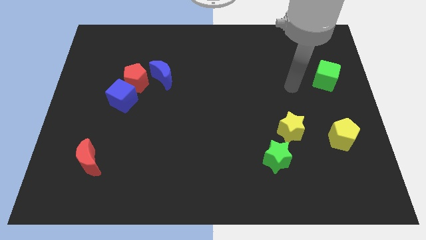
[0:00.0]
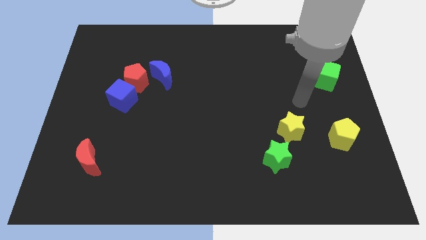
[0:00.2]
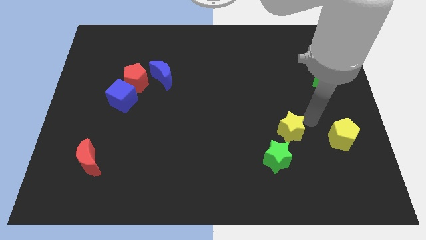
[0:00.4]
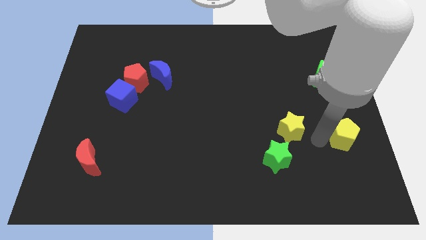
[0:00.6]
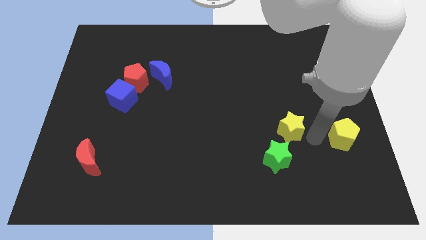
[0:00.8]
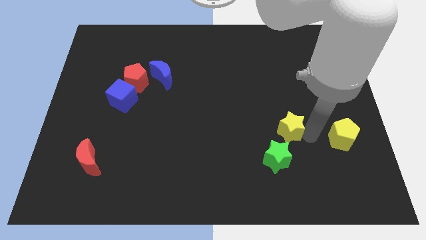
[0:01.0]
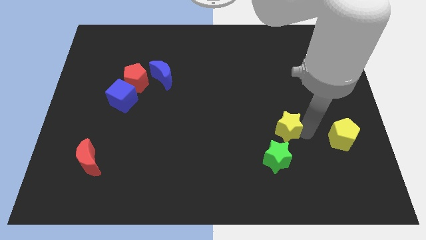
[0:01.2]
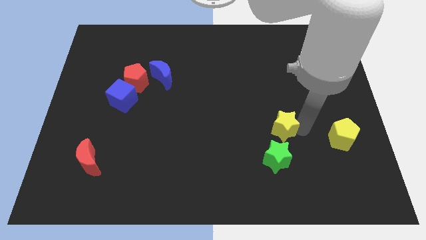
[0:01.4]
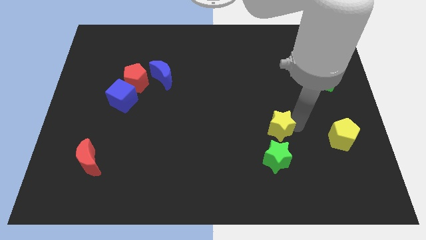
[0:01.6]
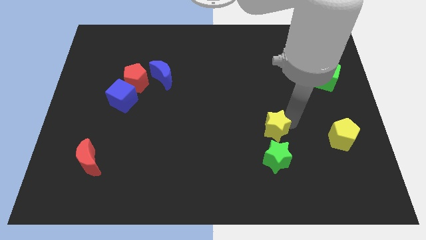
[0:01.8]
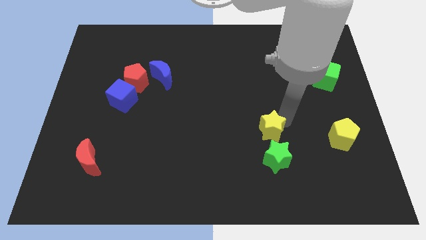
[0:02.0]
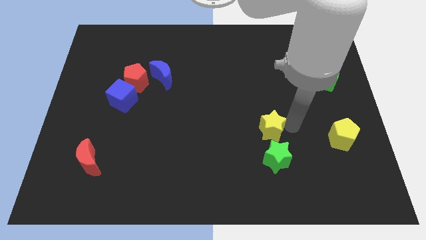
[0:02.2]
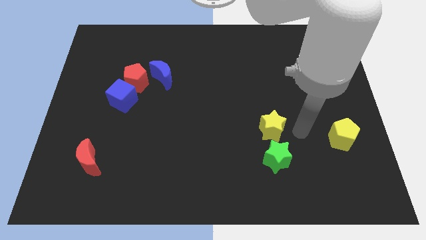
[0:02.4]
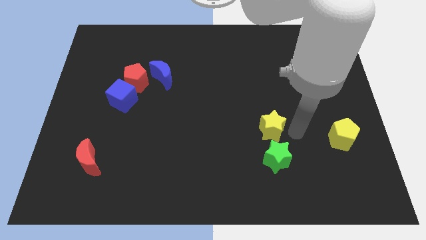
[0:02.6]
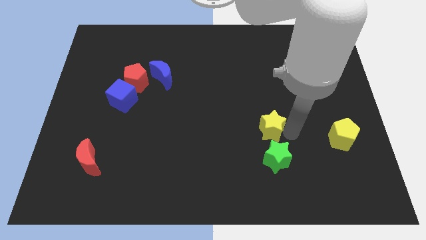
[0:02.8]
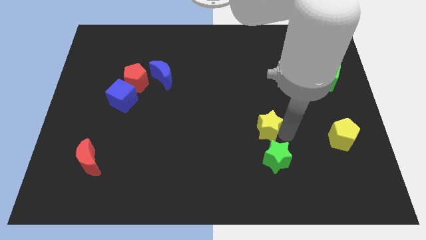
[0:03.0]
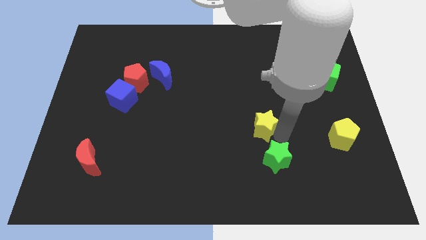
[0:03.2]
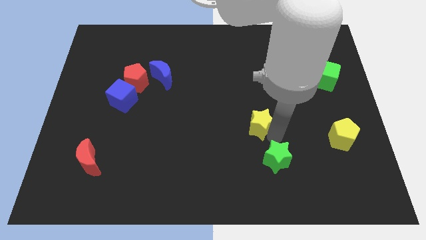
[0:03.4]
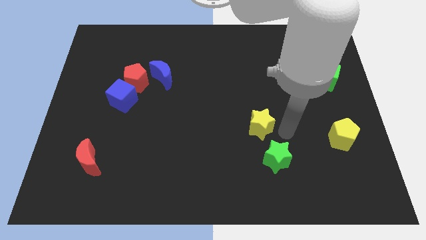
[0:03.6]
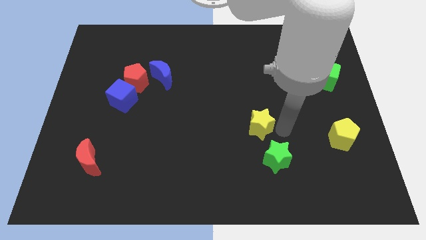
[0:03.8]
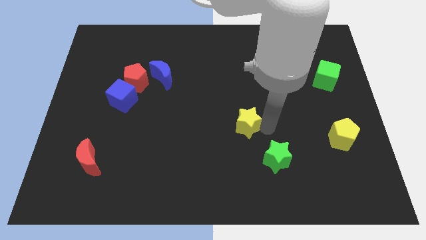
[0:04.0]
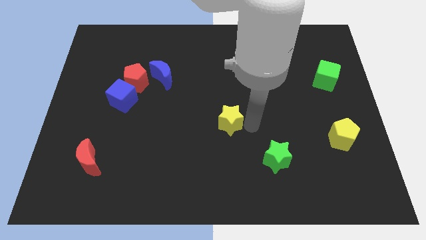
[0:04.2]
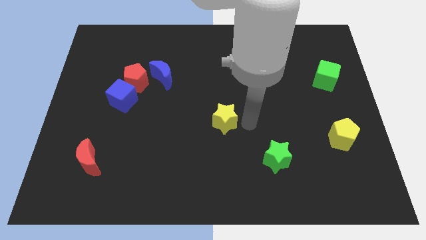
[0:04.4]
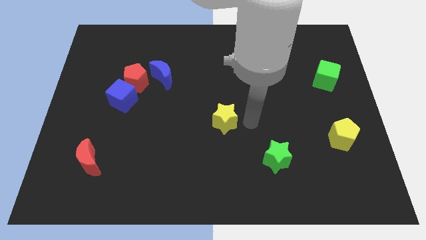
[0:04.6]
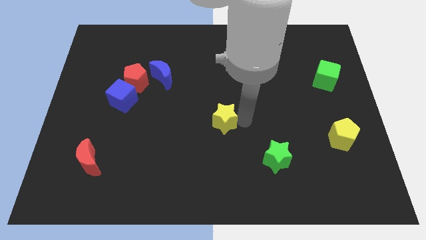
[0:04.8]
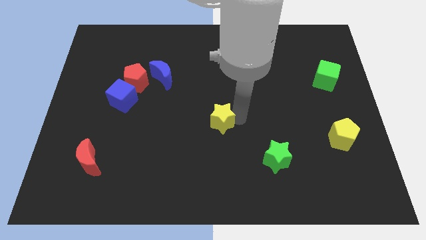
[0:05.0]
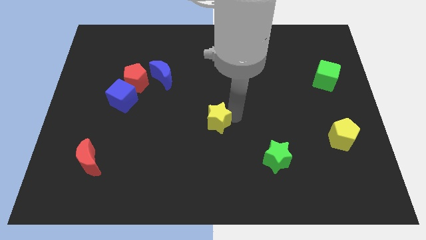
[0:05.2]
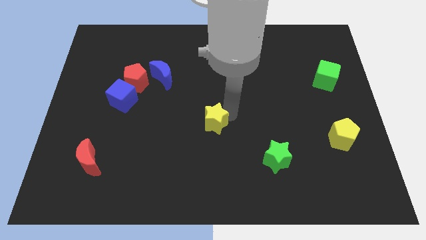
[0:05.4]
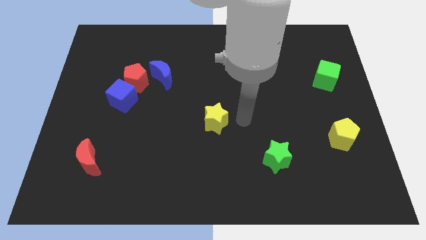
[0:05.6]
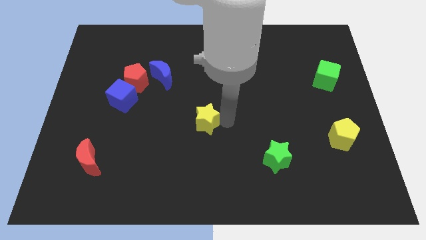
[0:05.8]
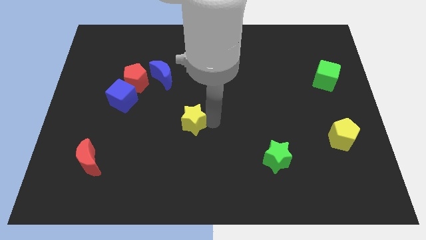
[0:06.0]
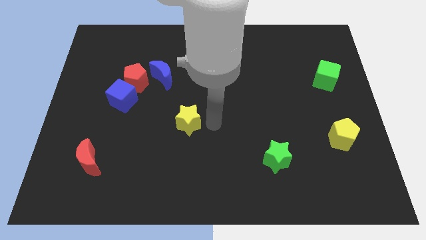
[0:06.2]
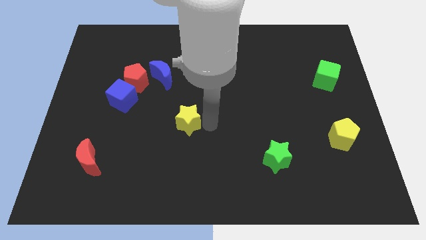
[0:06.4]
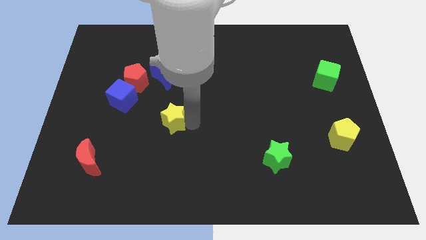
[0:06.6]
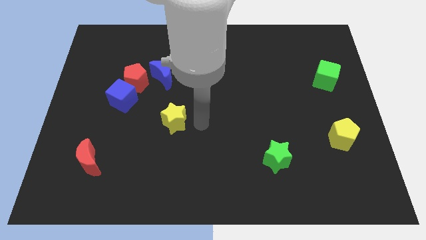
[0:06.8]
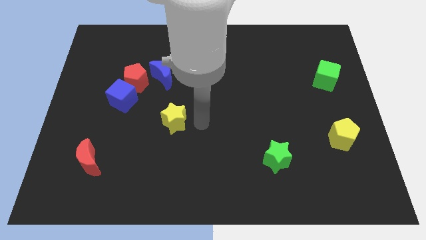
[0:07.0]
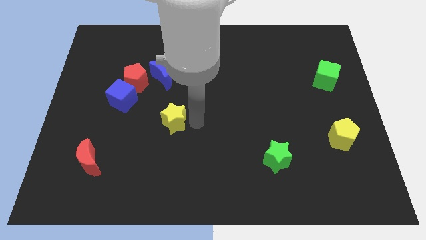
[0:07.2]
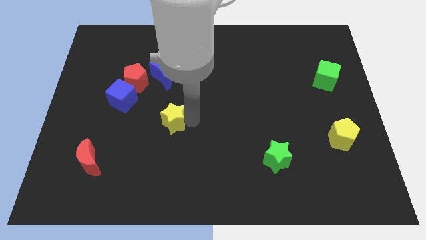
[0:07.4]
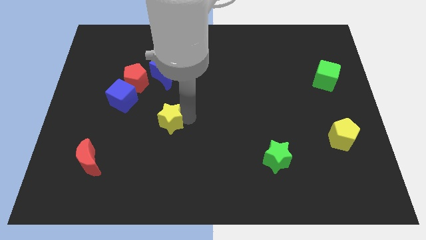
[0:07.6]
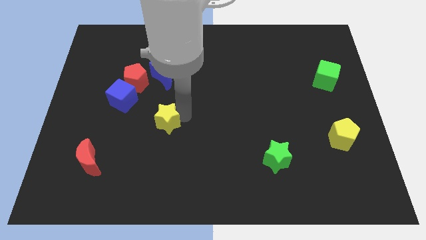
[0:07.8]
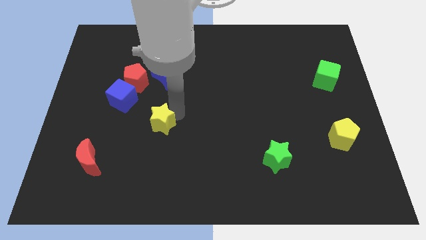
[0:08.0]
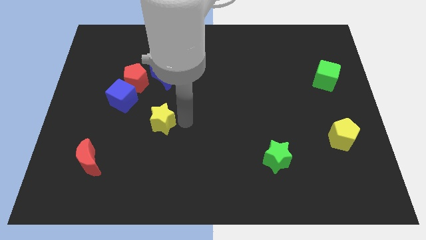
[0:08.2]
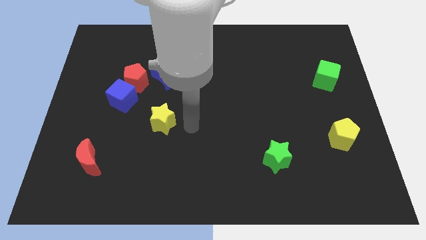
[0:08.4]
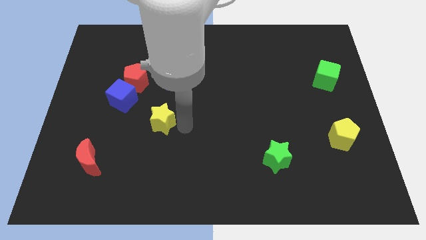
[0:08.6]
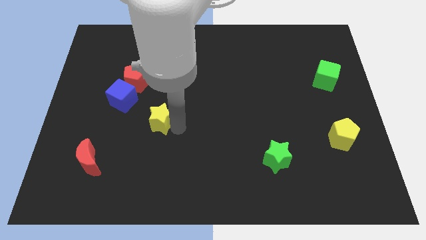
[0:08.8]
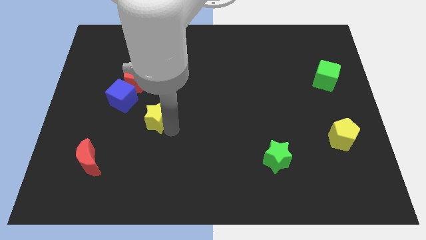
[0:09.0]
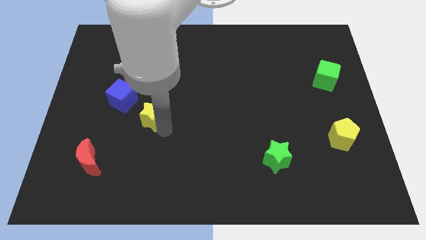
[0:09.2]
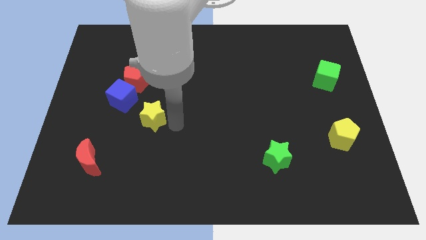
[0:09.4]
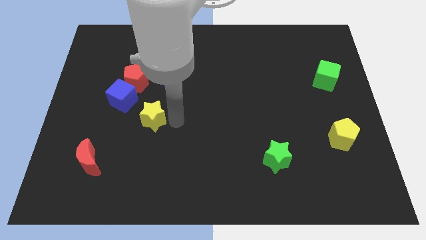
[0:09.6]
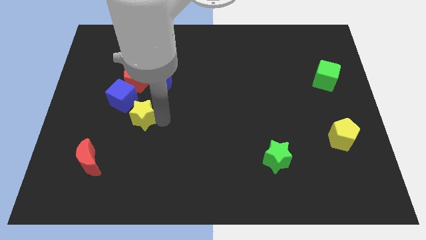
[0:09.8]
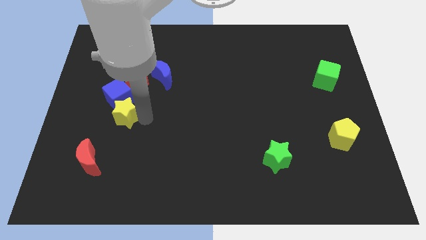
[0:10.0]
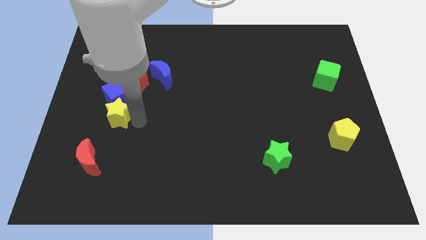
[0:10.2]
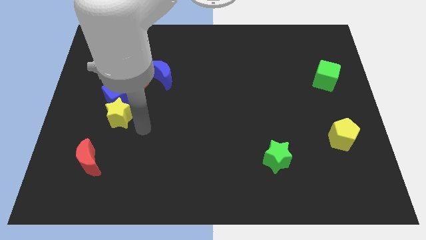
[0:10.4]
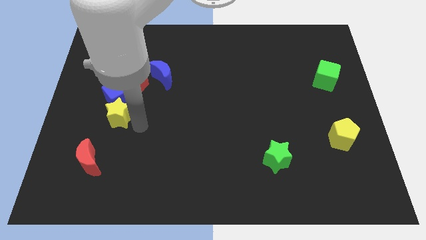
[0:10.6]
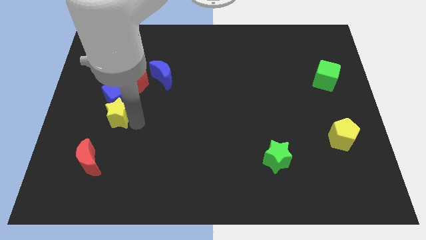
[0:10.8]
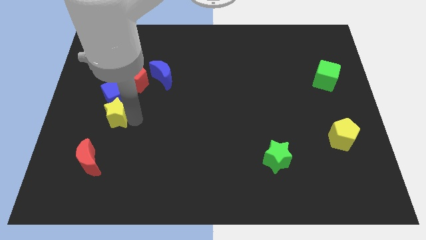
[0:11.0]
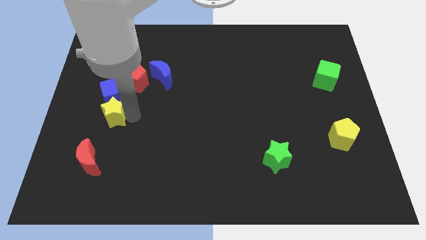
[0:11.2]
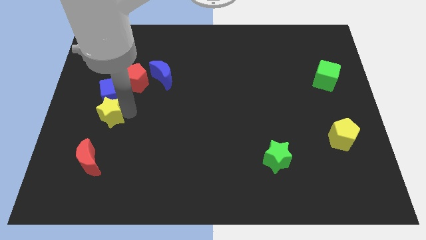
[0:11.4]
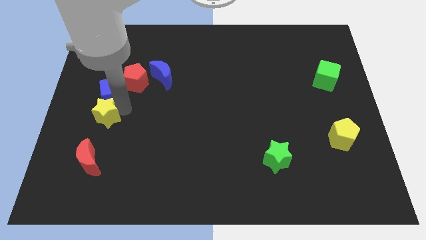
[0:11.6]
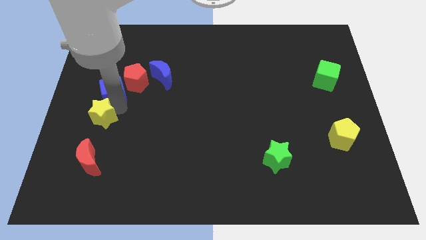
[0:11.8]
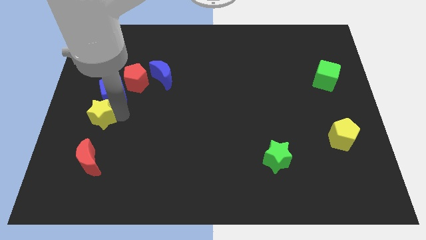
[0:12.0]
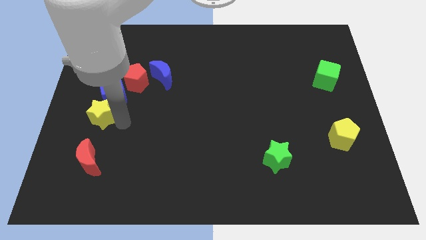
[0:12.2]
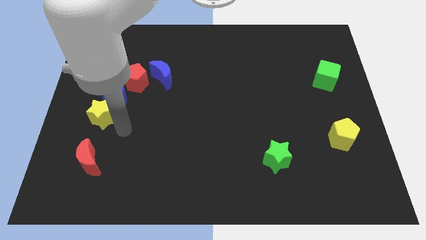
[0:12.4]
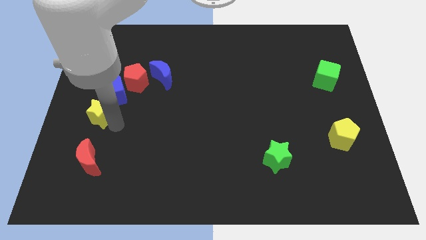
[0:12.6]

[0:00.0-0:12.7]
put the yellow star to the left side of the board
